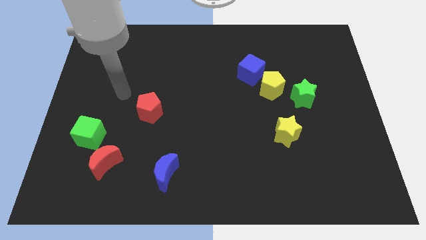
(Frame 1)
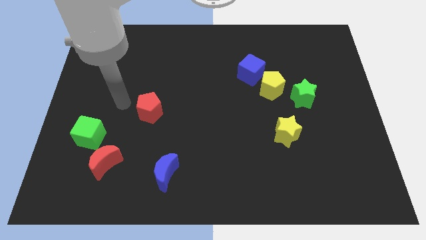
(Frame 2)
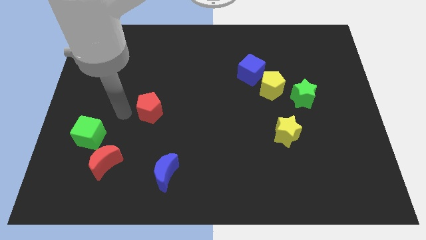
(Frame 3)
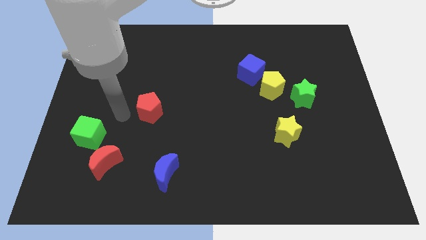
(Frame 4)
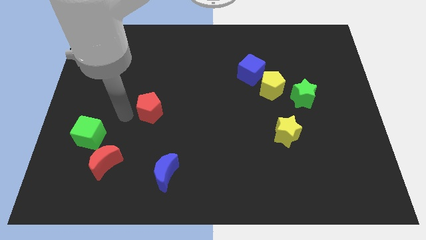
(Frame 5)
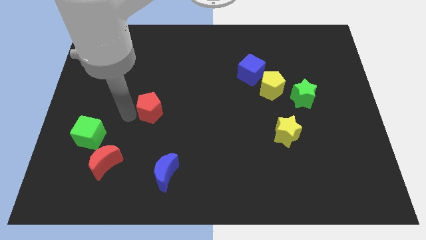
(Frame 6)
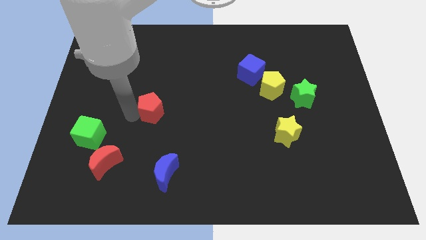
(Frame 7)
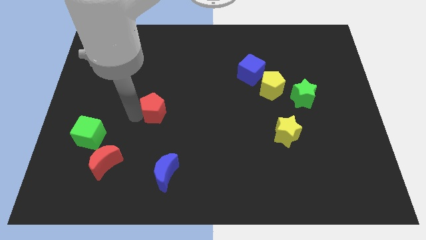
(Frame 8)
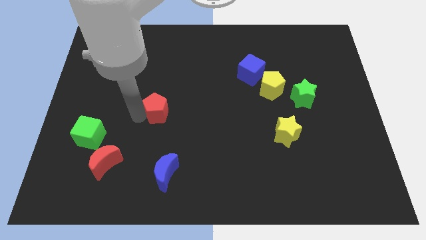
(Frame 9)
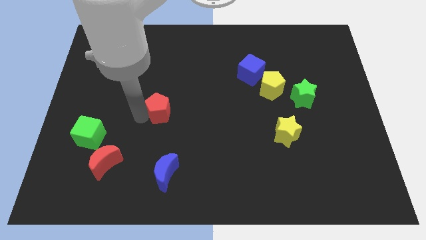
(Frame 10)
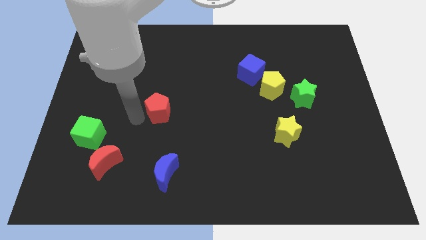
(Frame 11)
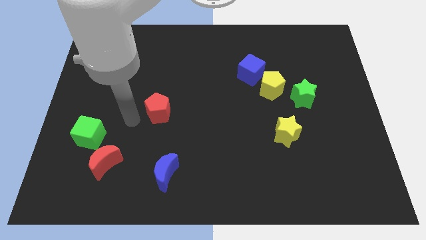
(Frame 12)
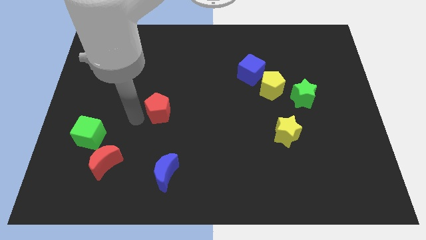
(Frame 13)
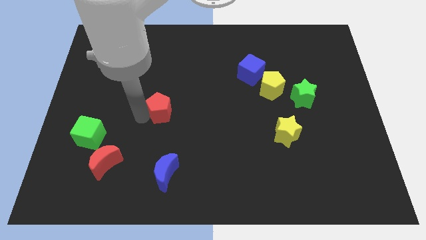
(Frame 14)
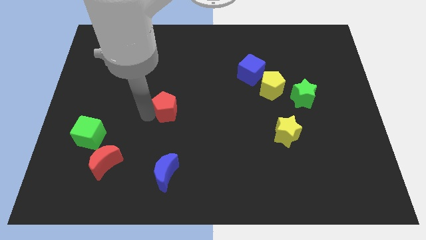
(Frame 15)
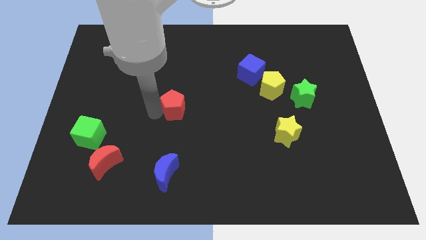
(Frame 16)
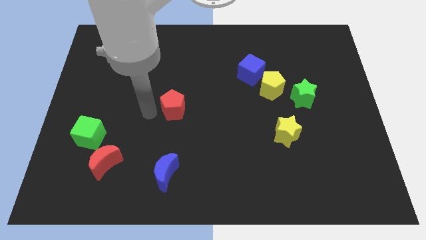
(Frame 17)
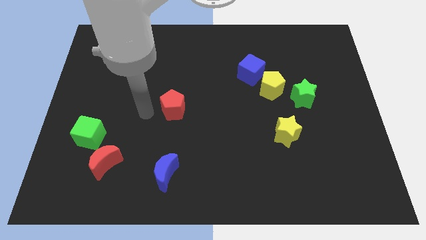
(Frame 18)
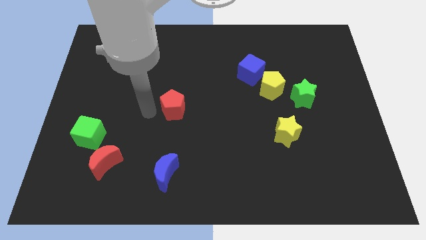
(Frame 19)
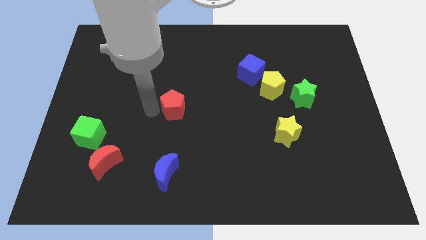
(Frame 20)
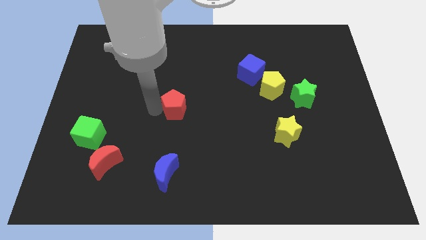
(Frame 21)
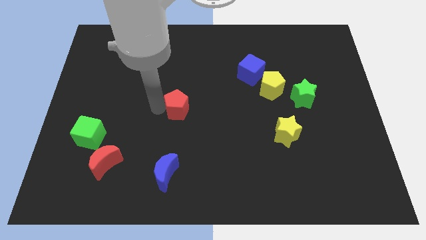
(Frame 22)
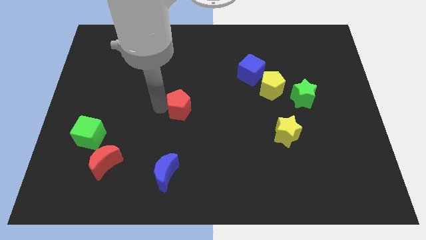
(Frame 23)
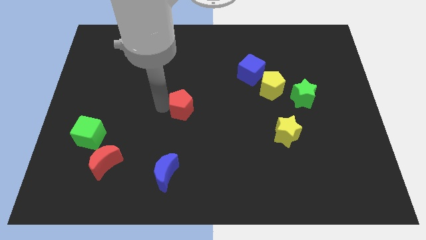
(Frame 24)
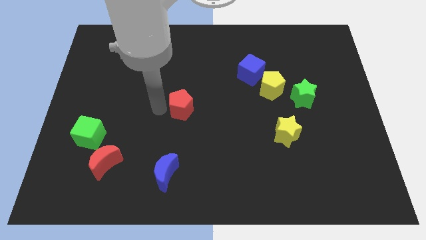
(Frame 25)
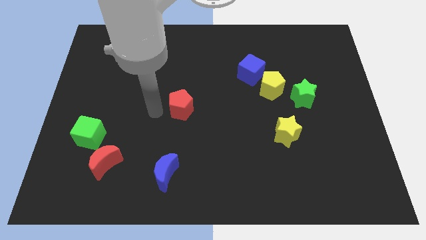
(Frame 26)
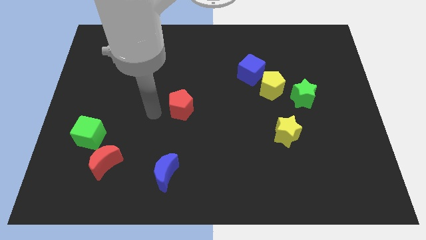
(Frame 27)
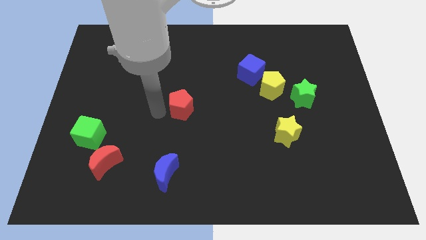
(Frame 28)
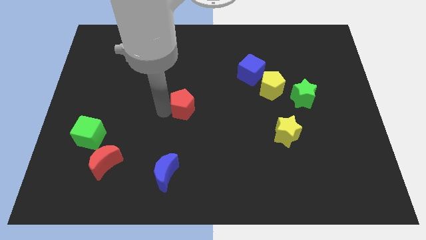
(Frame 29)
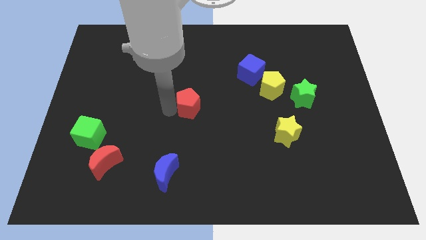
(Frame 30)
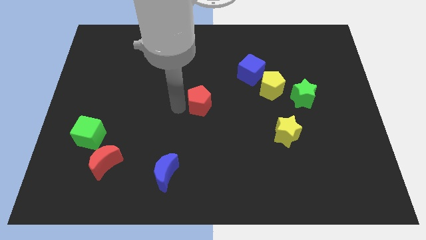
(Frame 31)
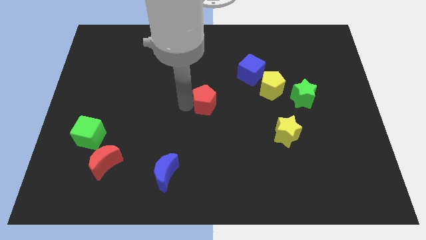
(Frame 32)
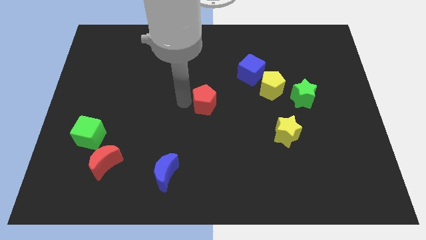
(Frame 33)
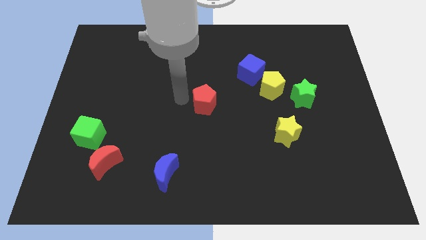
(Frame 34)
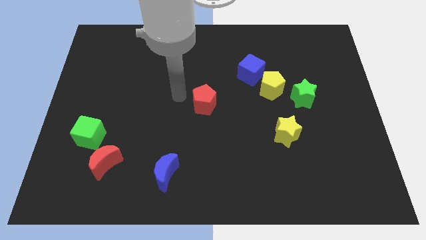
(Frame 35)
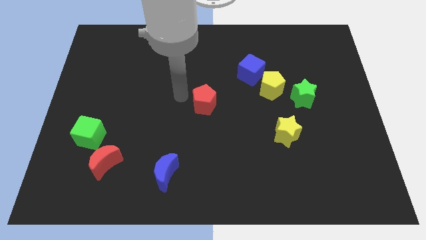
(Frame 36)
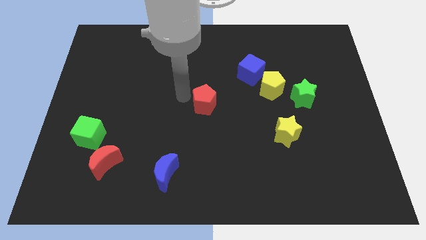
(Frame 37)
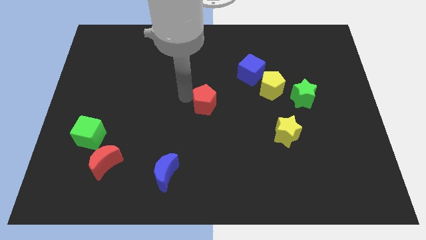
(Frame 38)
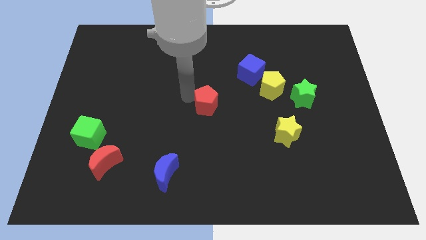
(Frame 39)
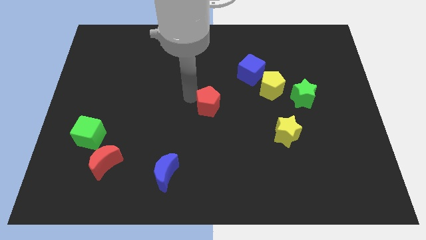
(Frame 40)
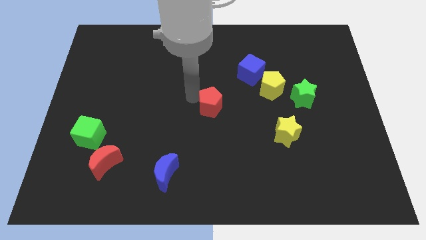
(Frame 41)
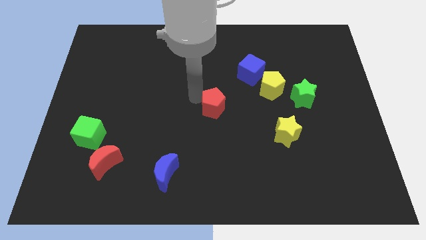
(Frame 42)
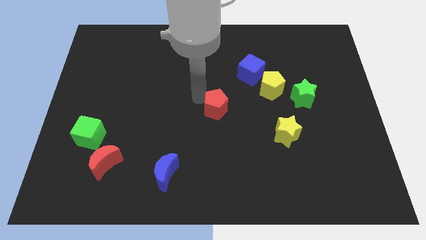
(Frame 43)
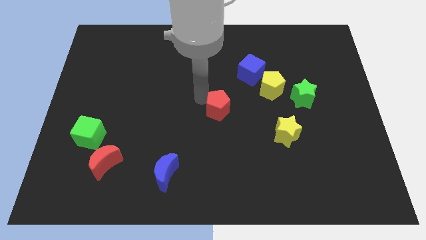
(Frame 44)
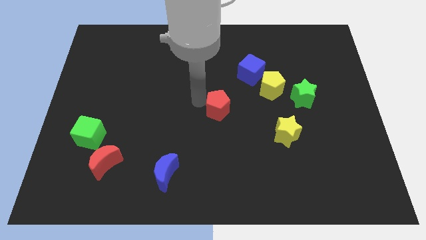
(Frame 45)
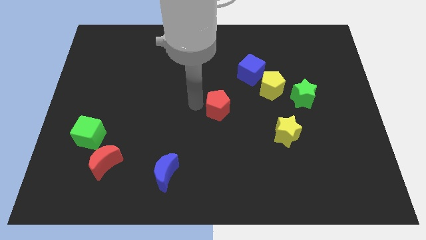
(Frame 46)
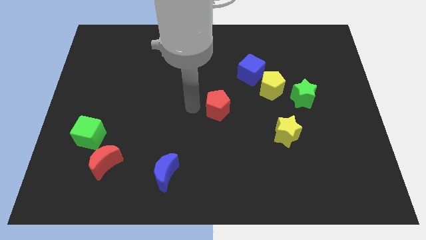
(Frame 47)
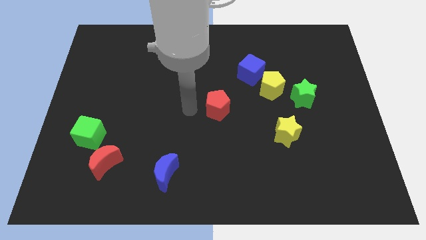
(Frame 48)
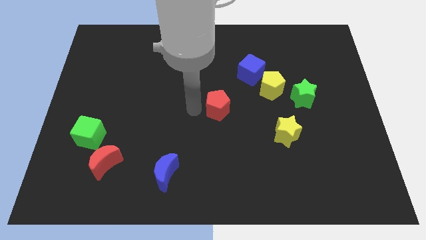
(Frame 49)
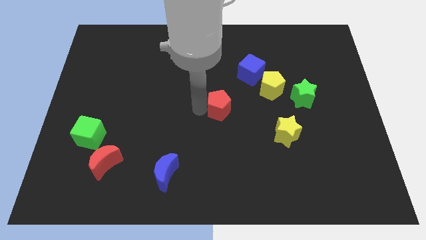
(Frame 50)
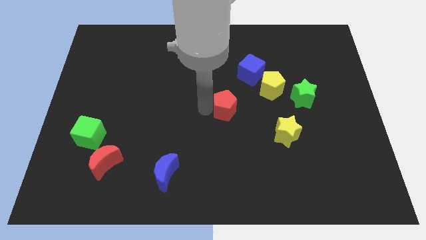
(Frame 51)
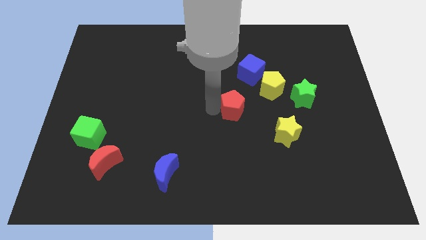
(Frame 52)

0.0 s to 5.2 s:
slide the red pentagon diagonally down and to the left of the yellow pentagon

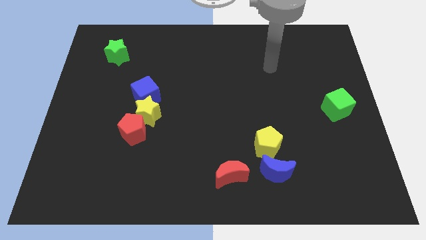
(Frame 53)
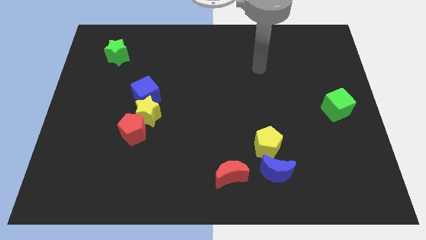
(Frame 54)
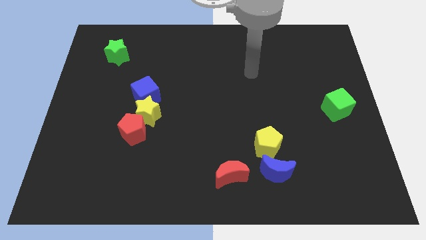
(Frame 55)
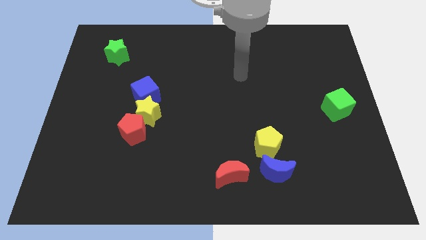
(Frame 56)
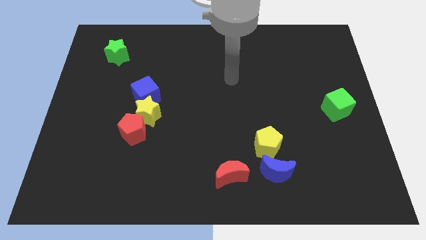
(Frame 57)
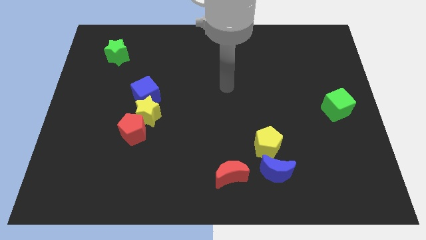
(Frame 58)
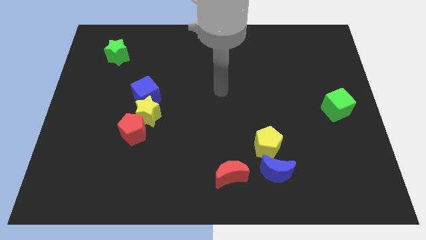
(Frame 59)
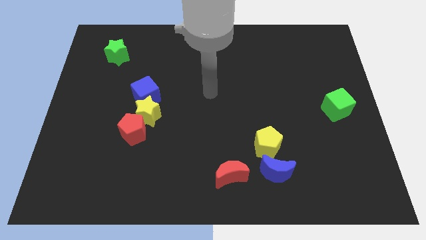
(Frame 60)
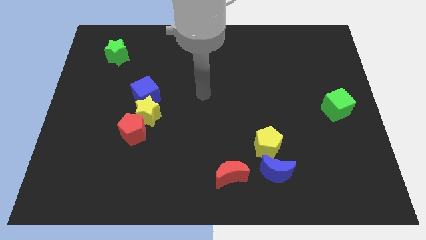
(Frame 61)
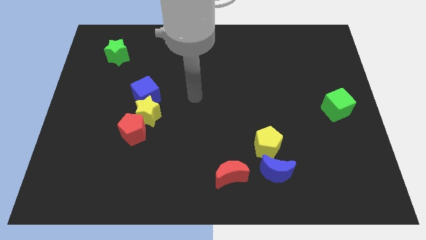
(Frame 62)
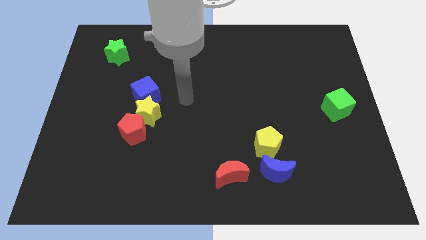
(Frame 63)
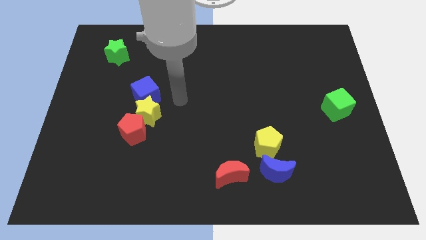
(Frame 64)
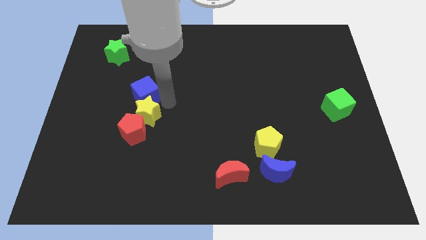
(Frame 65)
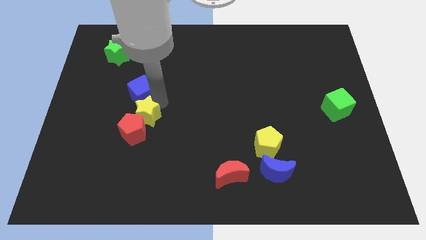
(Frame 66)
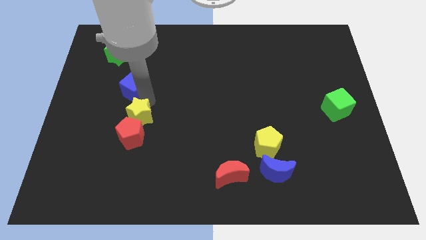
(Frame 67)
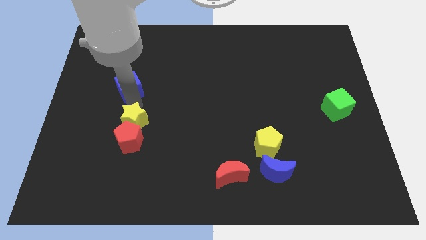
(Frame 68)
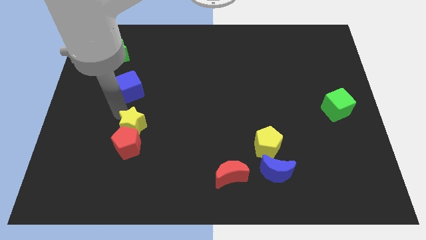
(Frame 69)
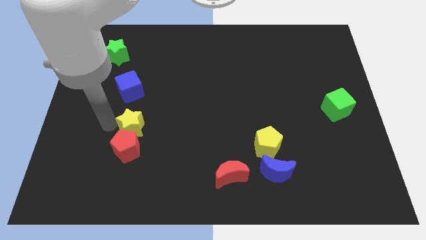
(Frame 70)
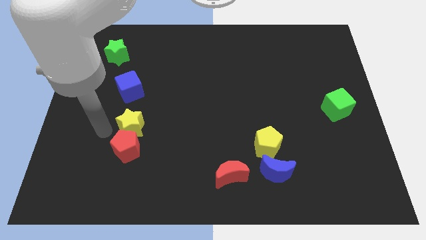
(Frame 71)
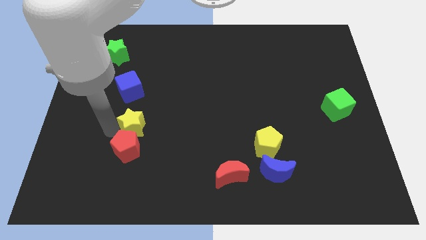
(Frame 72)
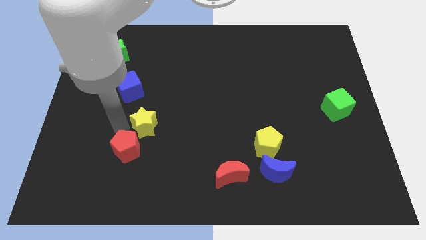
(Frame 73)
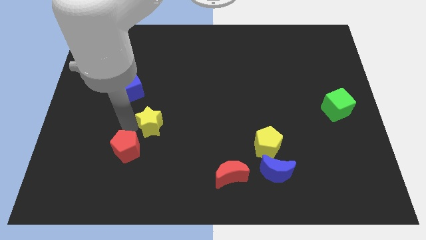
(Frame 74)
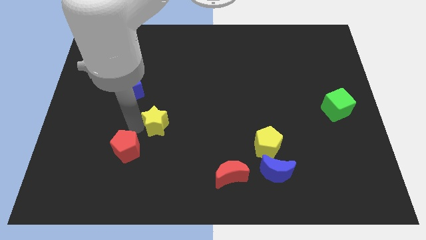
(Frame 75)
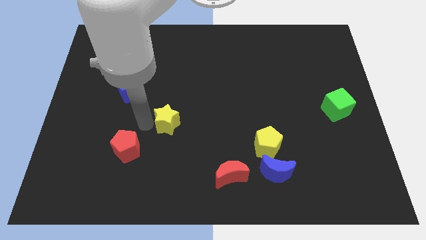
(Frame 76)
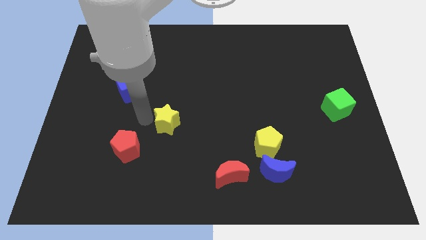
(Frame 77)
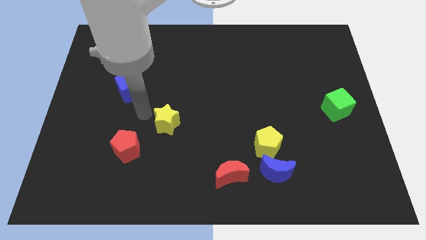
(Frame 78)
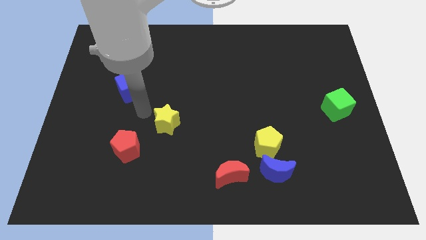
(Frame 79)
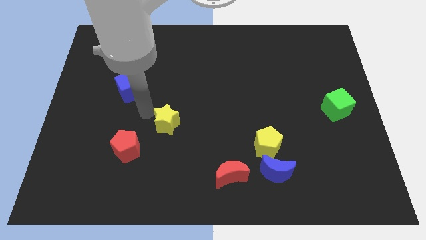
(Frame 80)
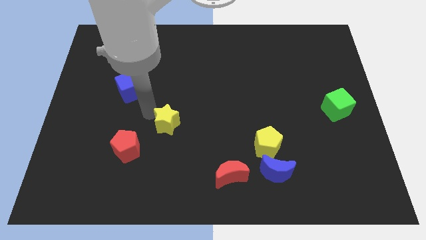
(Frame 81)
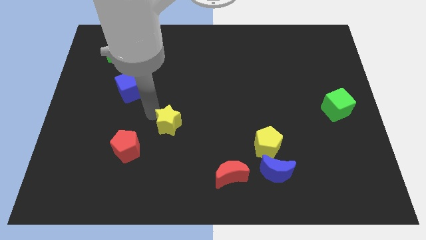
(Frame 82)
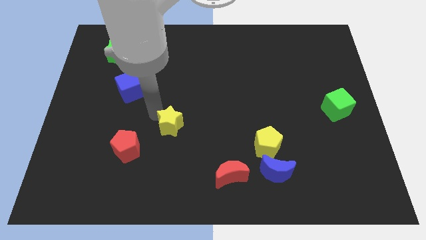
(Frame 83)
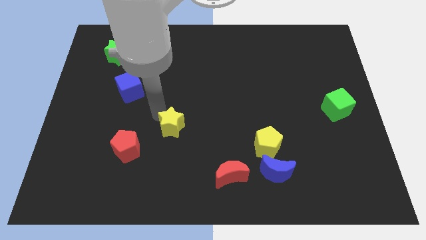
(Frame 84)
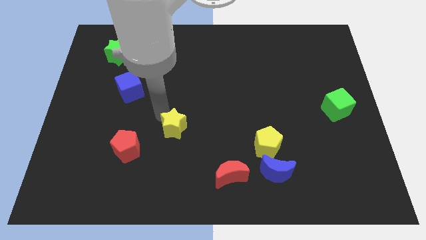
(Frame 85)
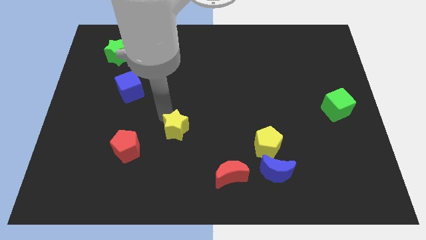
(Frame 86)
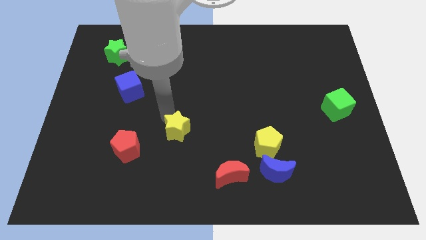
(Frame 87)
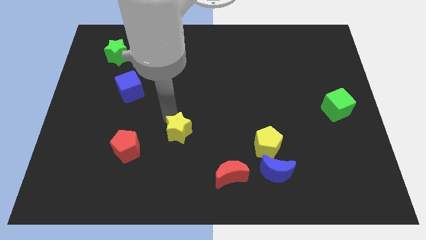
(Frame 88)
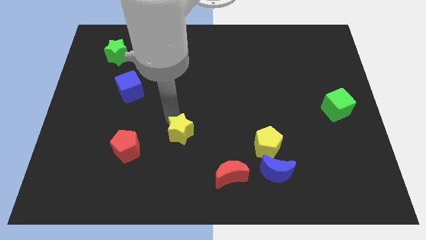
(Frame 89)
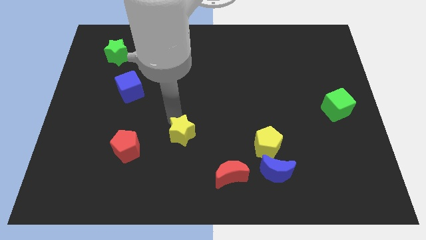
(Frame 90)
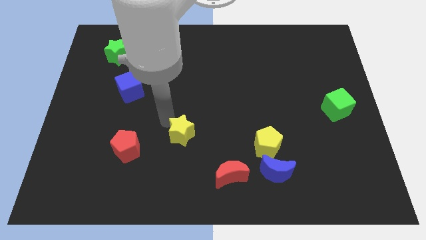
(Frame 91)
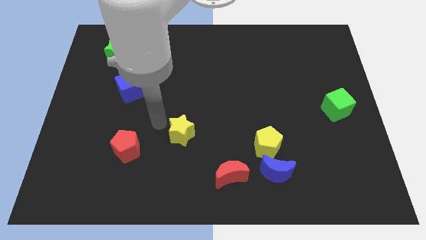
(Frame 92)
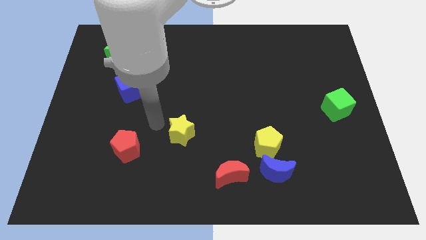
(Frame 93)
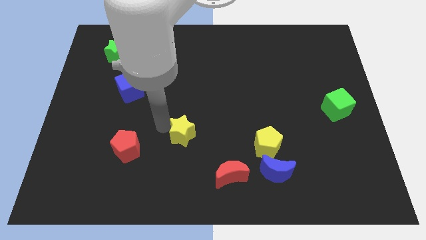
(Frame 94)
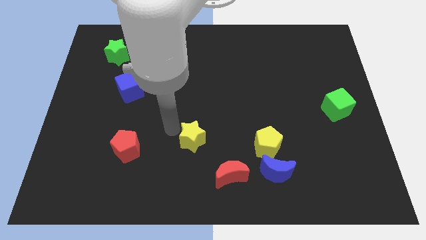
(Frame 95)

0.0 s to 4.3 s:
push the yellow star just left of the yellow pentagon
